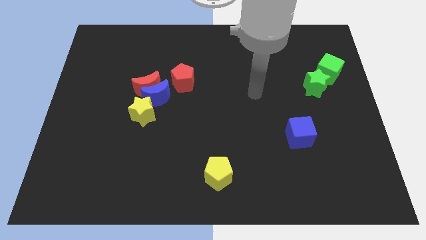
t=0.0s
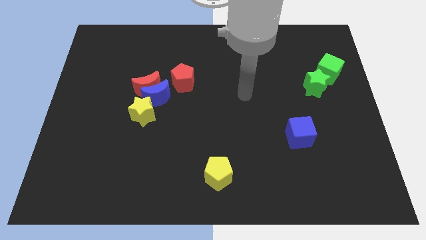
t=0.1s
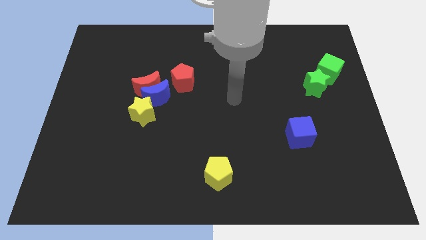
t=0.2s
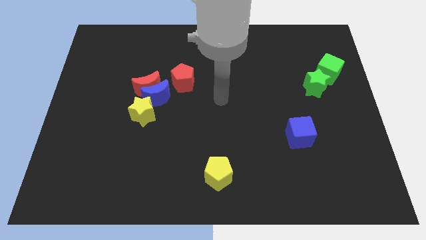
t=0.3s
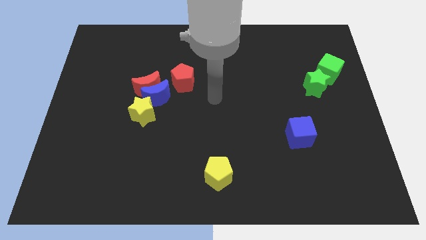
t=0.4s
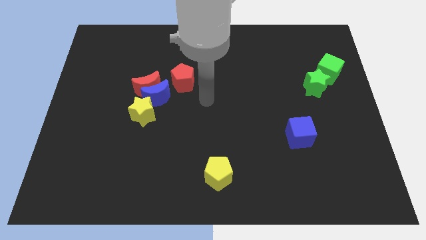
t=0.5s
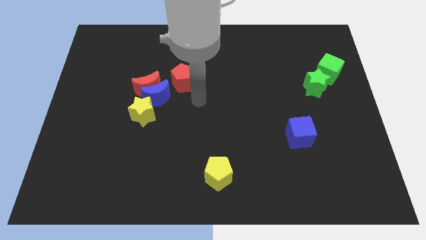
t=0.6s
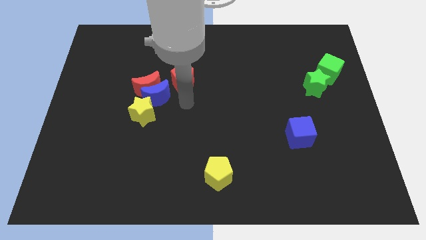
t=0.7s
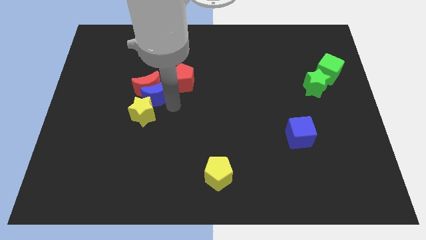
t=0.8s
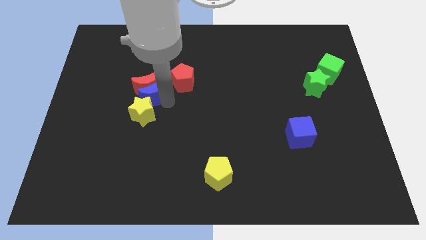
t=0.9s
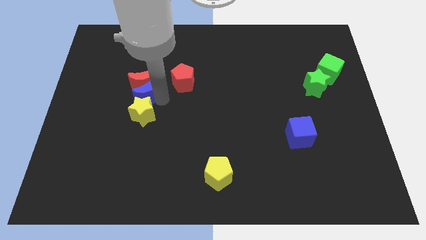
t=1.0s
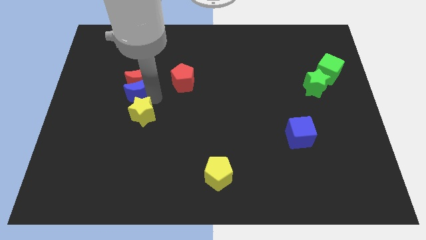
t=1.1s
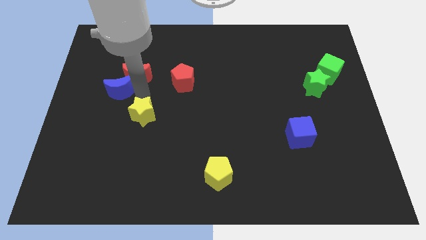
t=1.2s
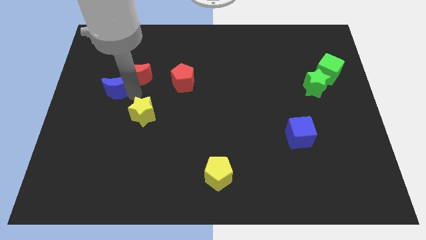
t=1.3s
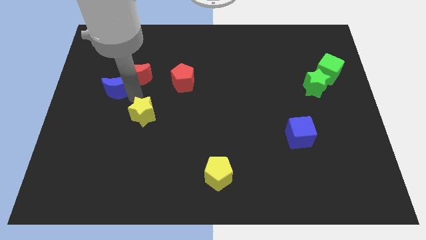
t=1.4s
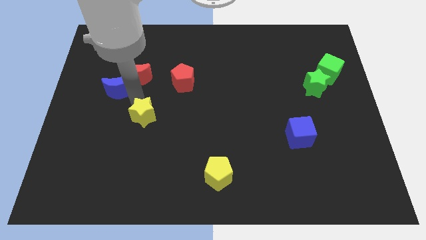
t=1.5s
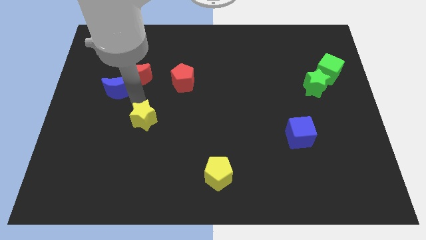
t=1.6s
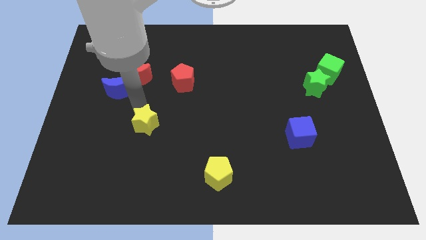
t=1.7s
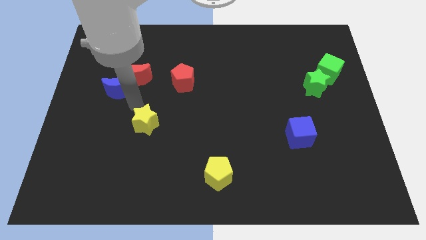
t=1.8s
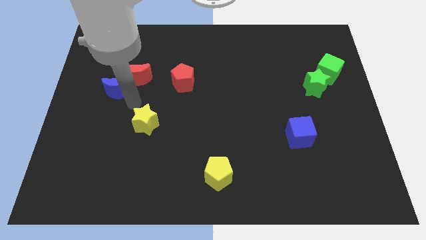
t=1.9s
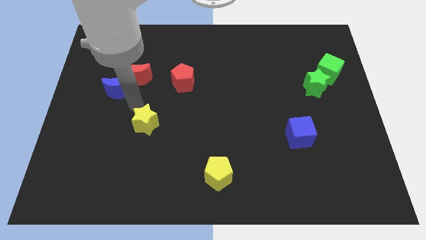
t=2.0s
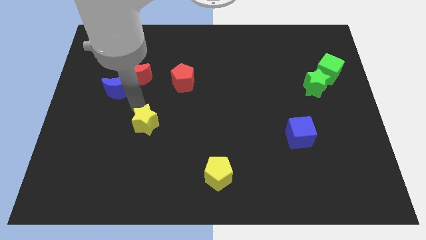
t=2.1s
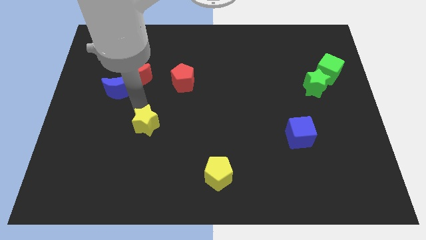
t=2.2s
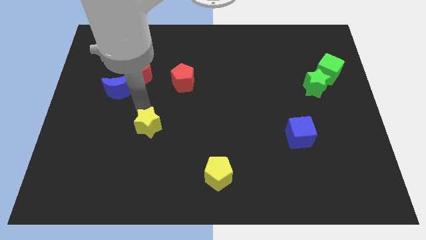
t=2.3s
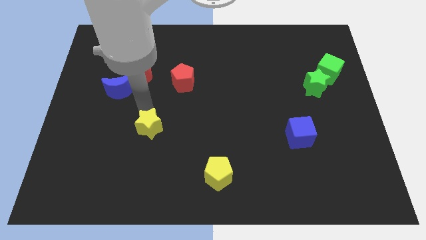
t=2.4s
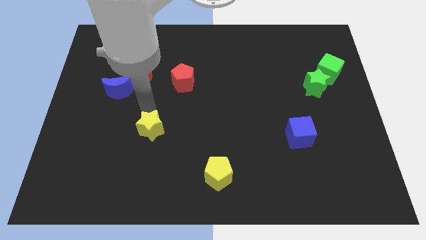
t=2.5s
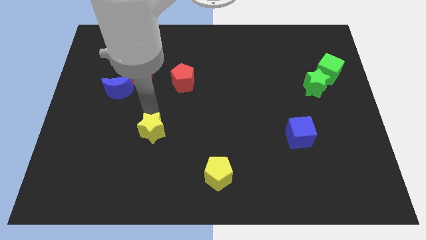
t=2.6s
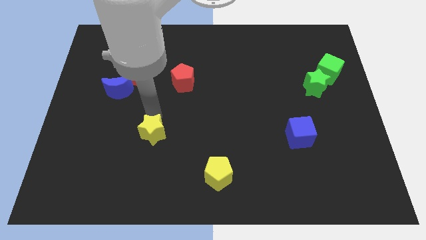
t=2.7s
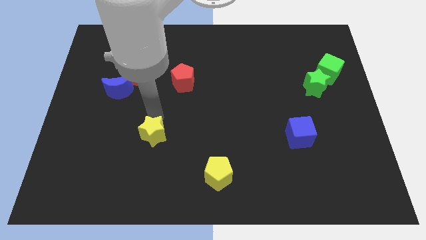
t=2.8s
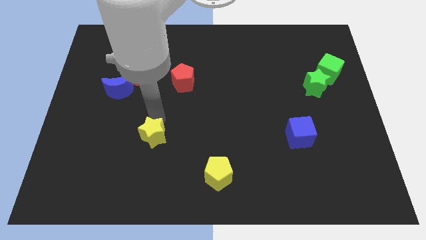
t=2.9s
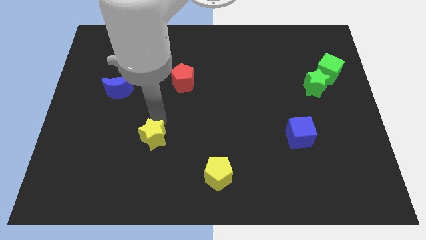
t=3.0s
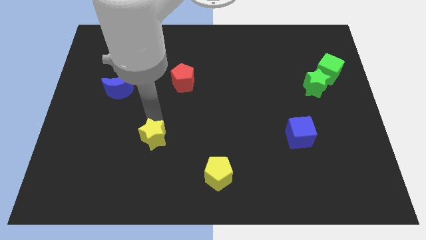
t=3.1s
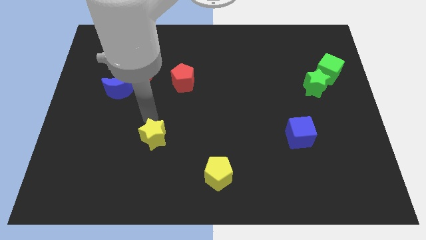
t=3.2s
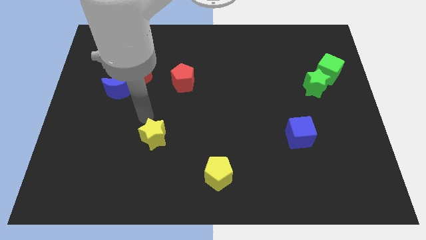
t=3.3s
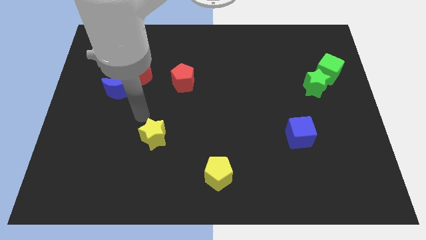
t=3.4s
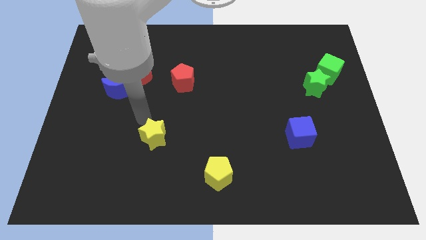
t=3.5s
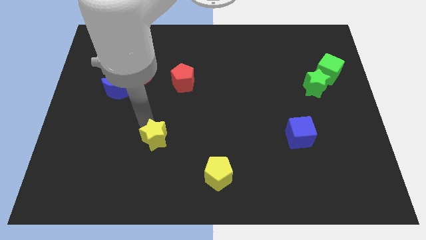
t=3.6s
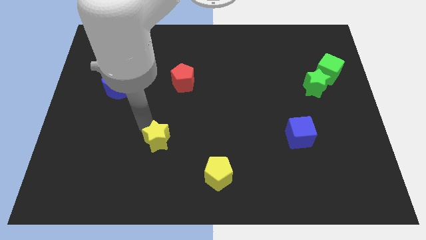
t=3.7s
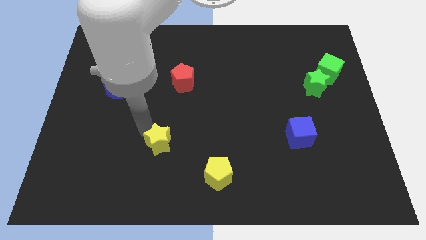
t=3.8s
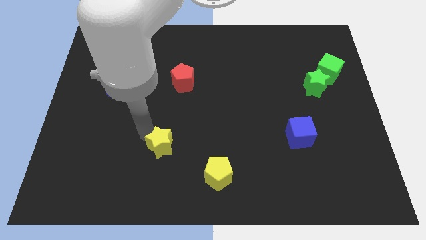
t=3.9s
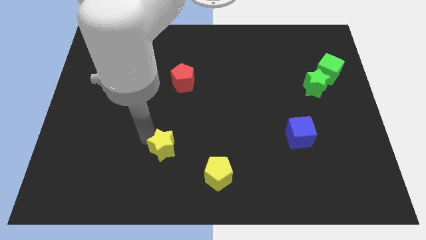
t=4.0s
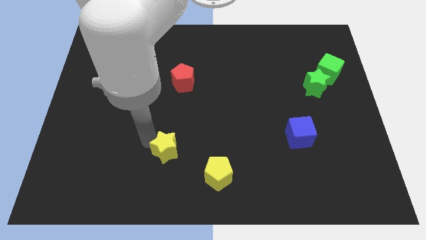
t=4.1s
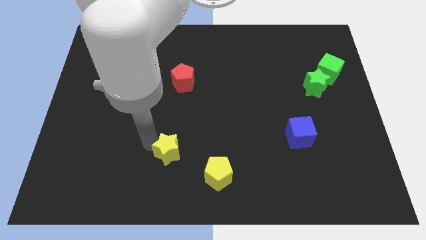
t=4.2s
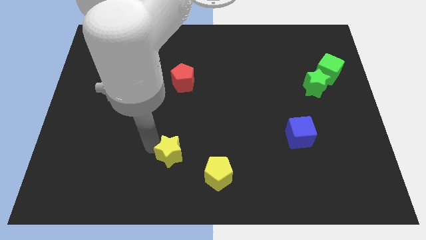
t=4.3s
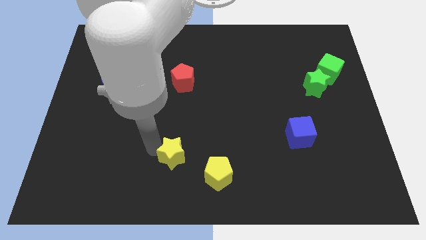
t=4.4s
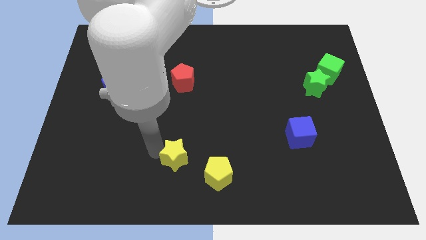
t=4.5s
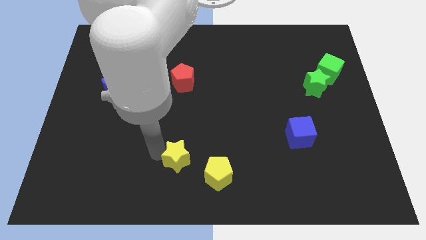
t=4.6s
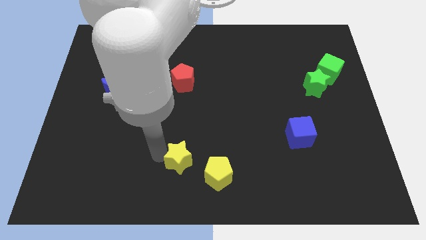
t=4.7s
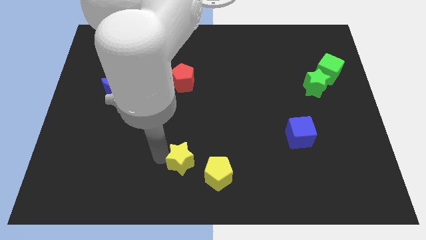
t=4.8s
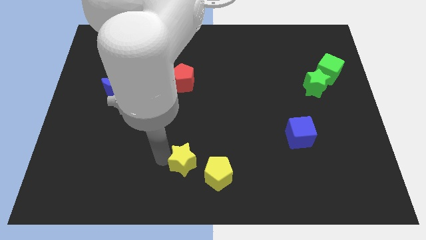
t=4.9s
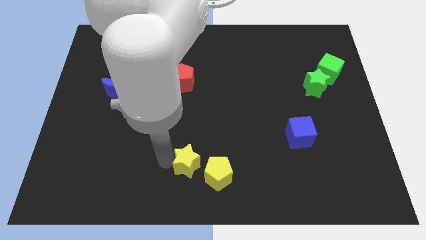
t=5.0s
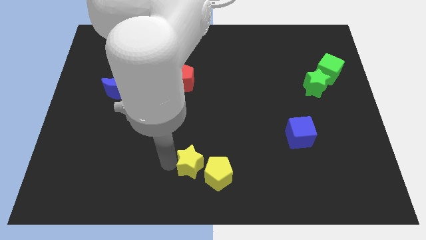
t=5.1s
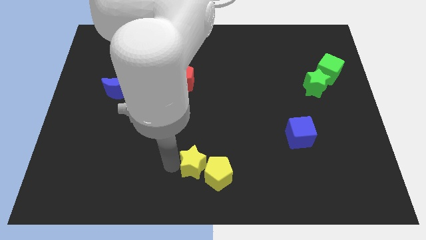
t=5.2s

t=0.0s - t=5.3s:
move the yellow star close to the yellow pentagon

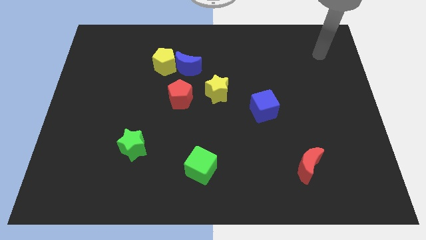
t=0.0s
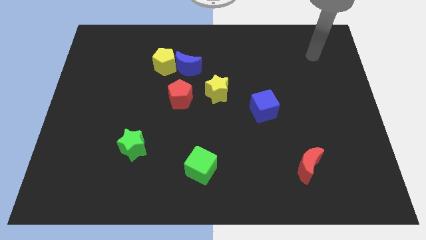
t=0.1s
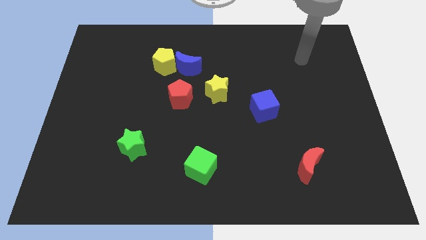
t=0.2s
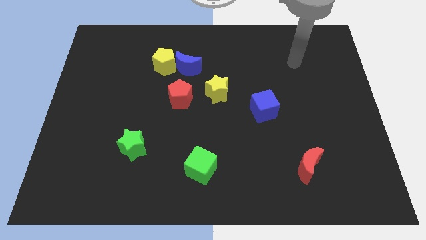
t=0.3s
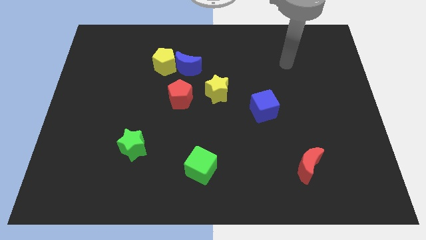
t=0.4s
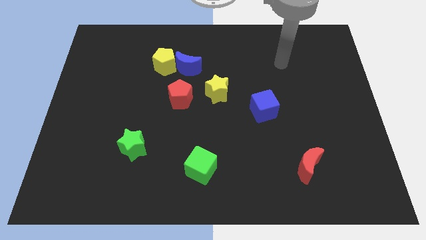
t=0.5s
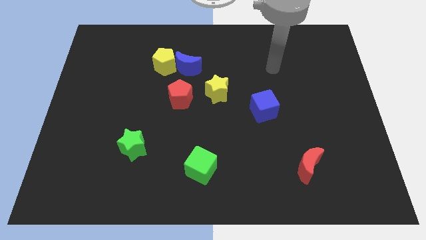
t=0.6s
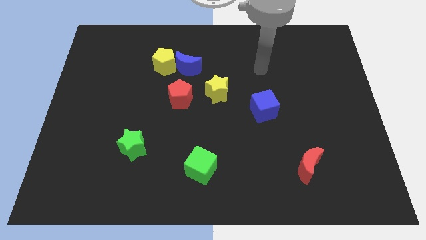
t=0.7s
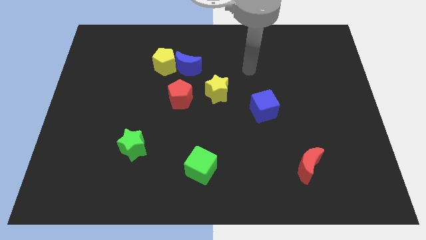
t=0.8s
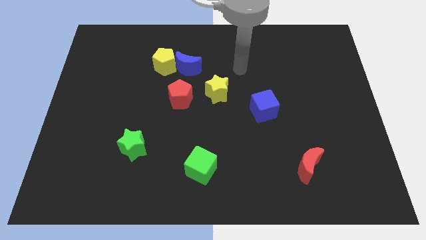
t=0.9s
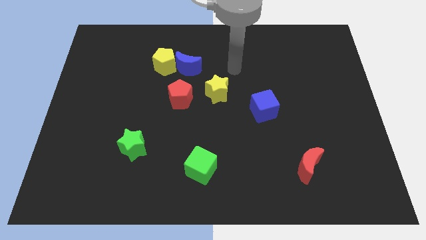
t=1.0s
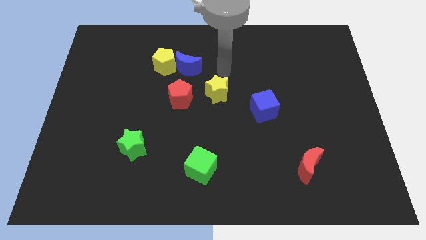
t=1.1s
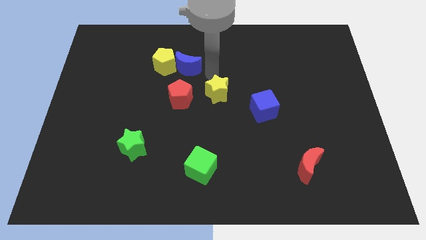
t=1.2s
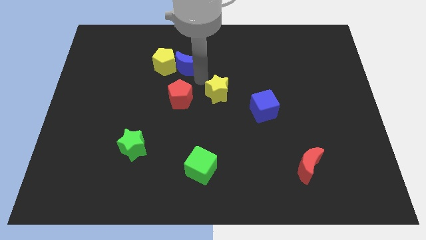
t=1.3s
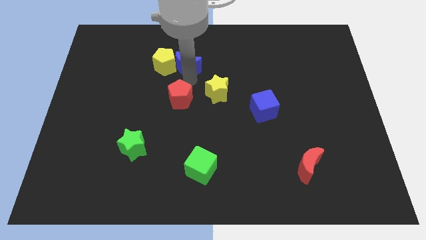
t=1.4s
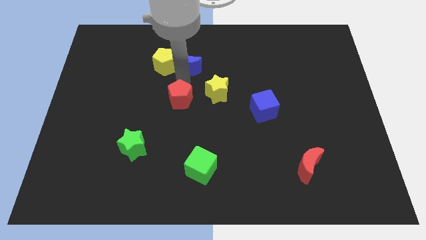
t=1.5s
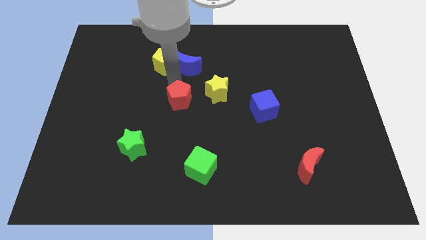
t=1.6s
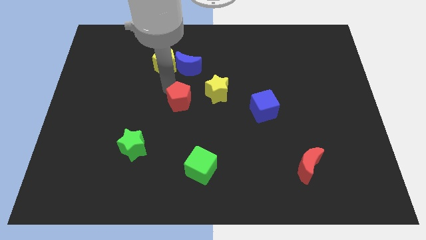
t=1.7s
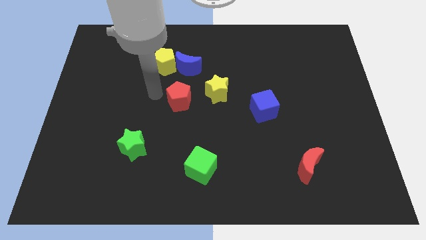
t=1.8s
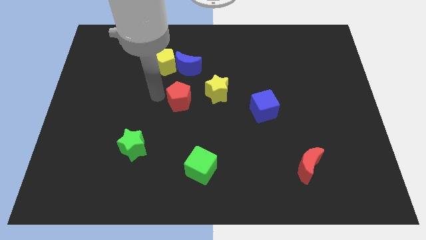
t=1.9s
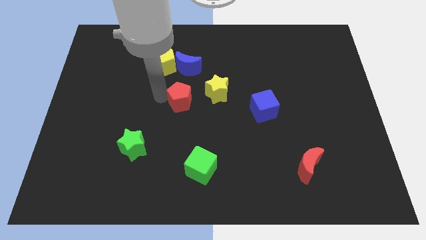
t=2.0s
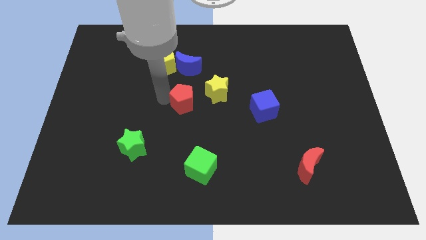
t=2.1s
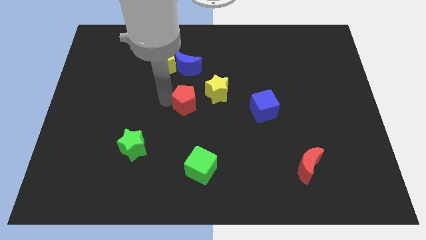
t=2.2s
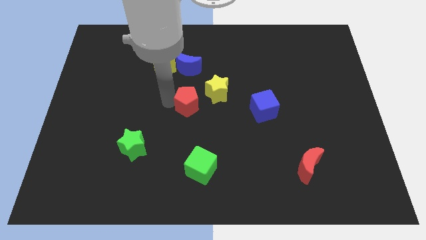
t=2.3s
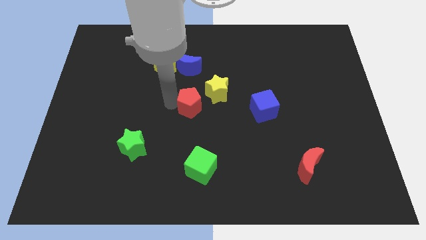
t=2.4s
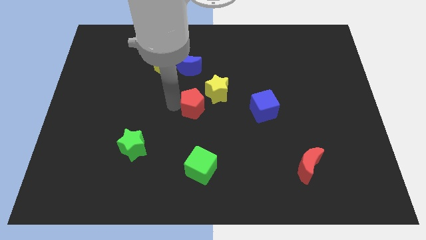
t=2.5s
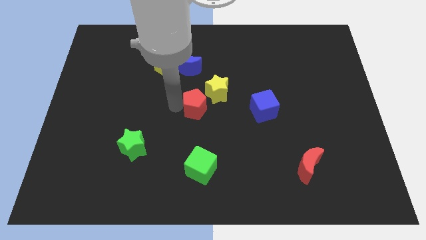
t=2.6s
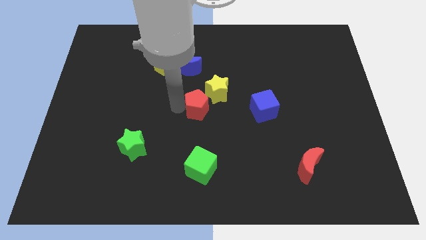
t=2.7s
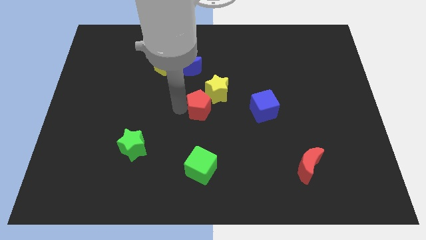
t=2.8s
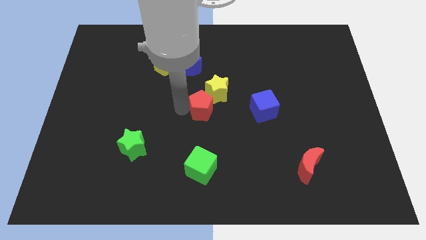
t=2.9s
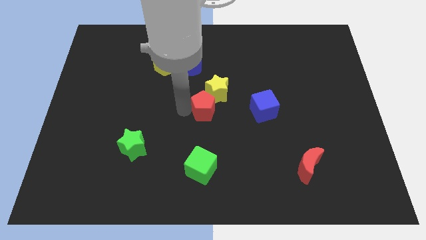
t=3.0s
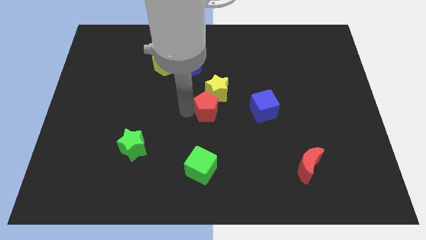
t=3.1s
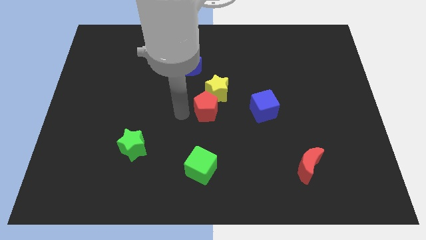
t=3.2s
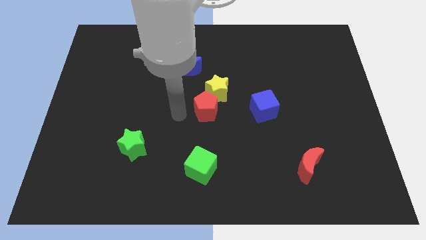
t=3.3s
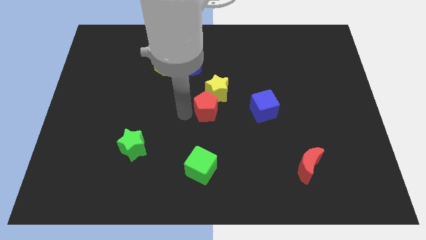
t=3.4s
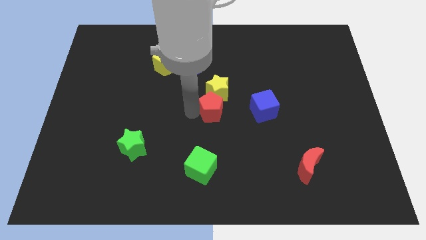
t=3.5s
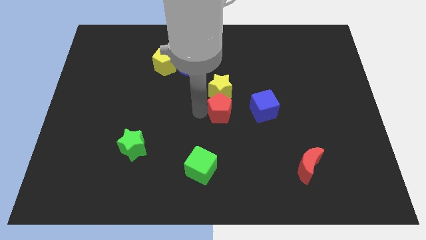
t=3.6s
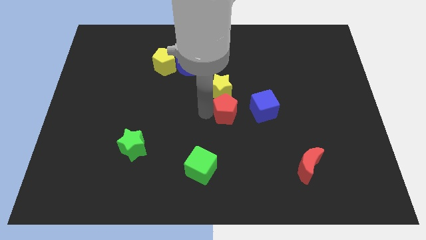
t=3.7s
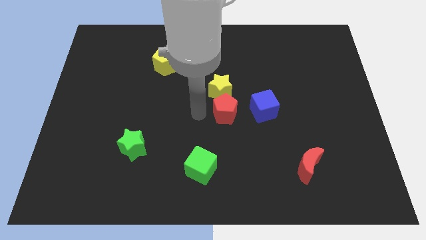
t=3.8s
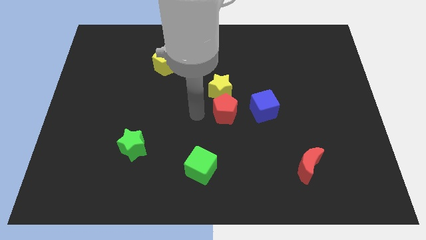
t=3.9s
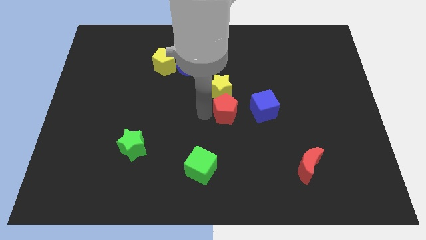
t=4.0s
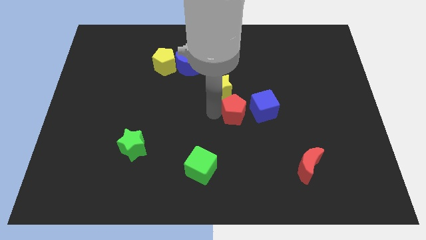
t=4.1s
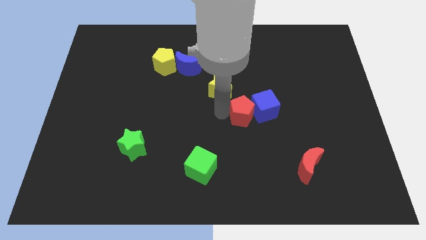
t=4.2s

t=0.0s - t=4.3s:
put the red pentagon to the blue cube
